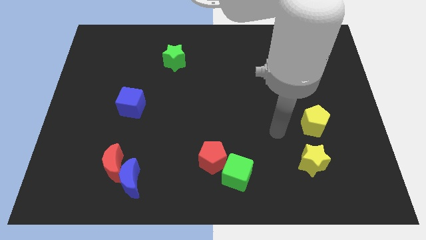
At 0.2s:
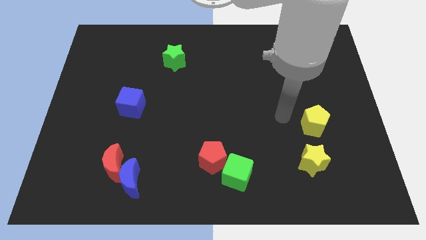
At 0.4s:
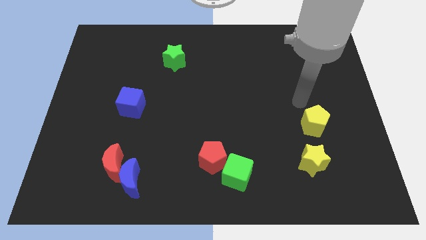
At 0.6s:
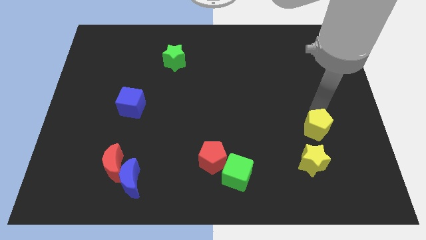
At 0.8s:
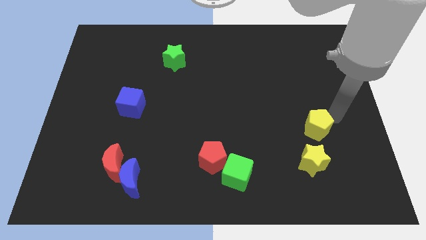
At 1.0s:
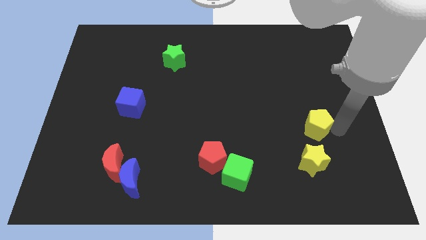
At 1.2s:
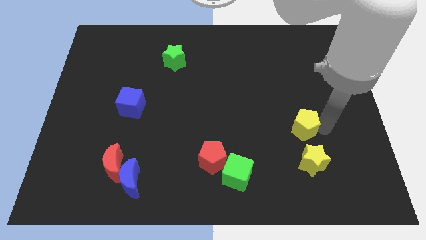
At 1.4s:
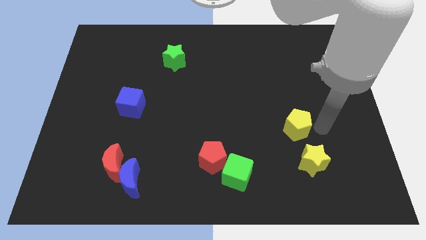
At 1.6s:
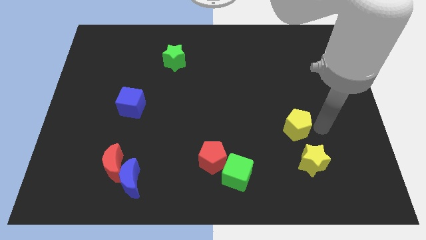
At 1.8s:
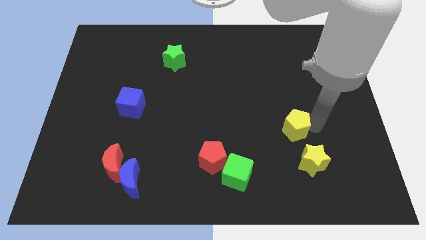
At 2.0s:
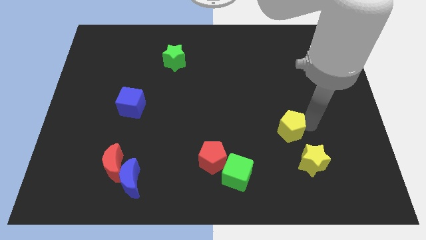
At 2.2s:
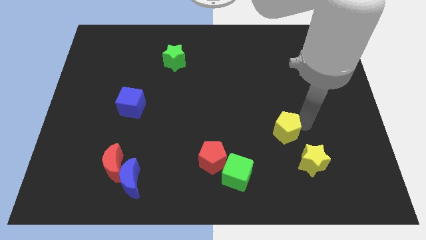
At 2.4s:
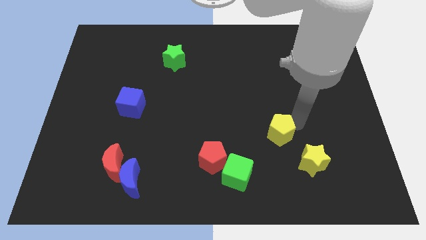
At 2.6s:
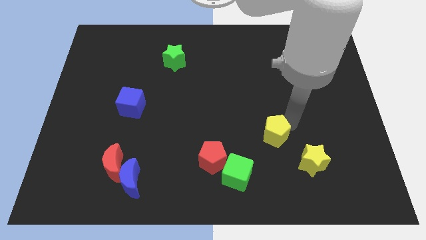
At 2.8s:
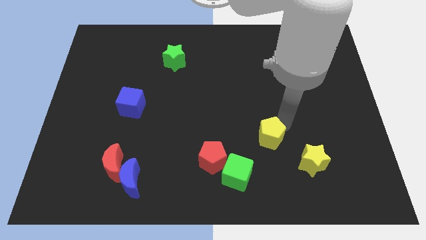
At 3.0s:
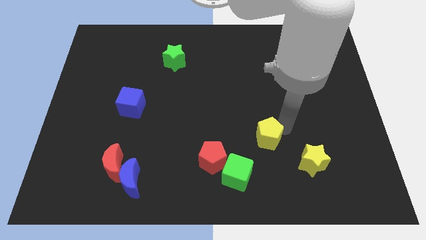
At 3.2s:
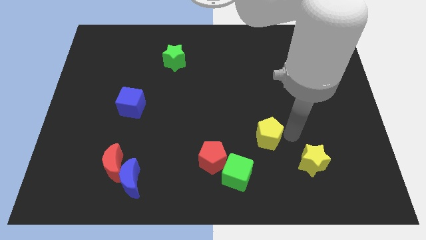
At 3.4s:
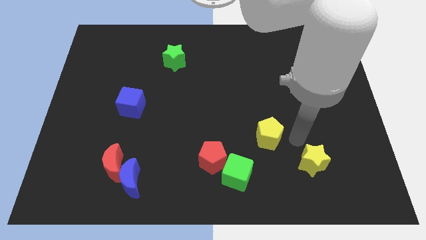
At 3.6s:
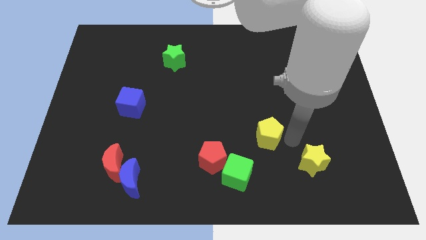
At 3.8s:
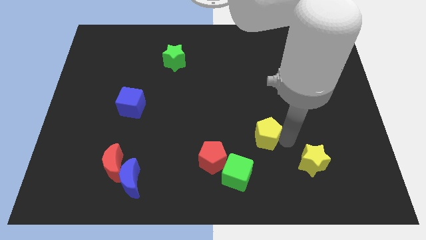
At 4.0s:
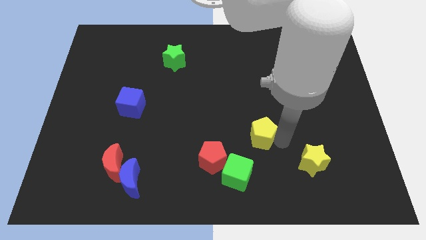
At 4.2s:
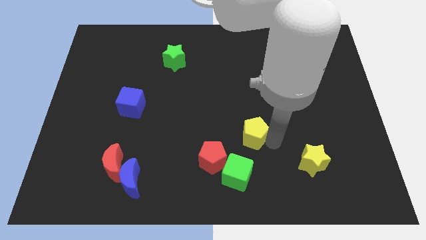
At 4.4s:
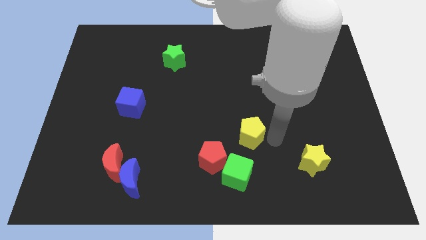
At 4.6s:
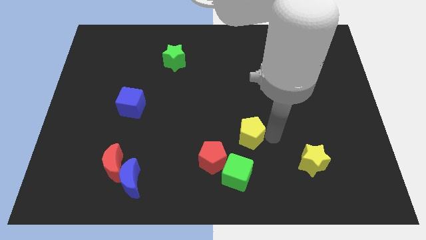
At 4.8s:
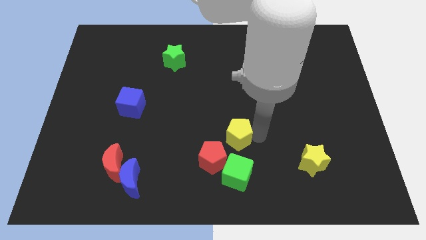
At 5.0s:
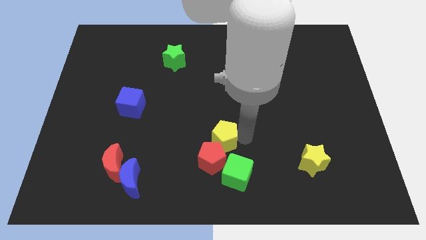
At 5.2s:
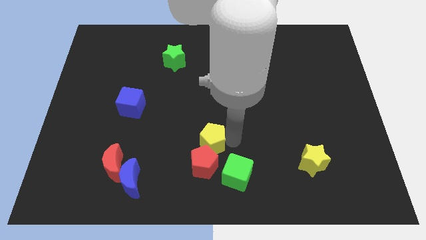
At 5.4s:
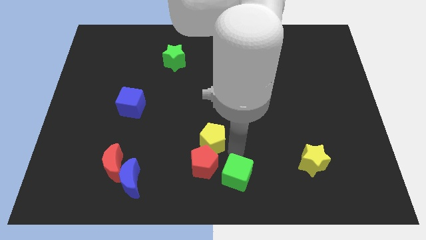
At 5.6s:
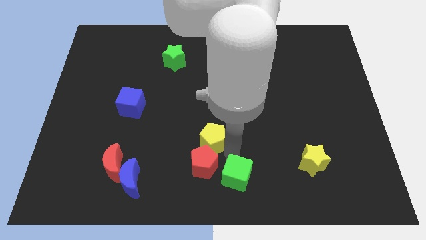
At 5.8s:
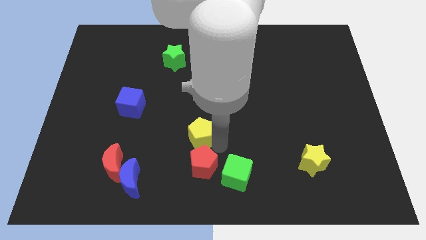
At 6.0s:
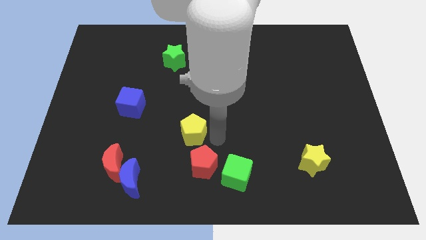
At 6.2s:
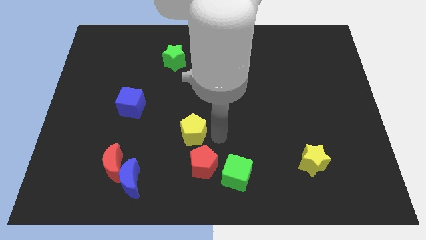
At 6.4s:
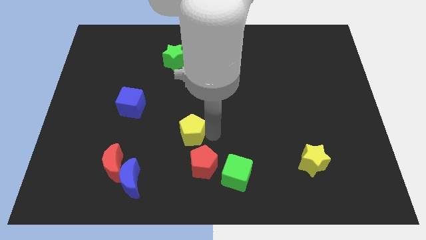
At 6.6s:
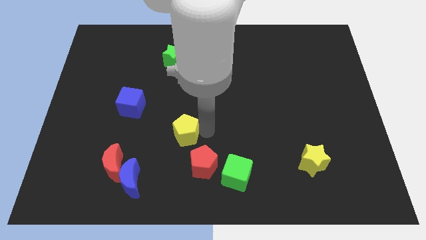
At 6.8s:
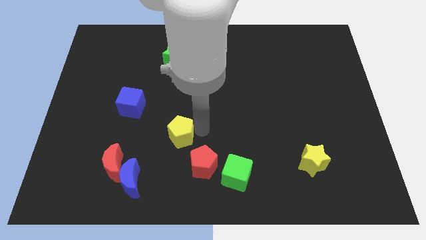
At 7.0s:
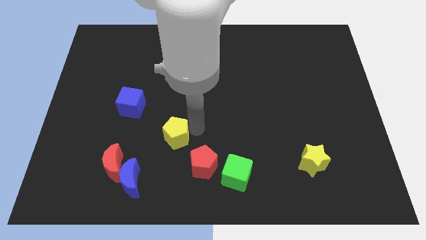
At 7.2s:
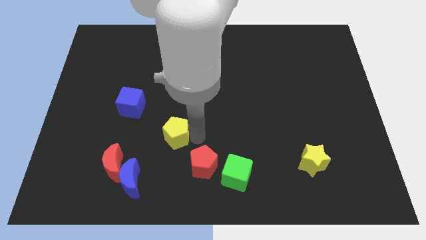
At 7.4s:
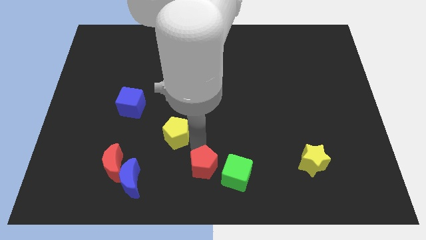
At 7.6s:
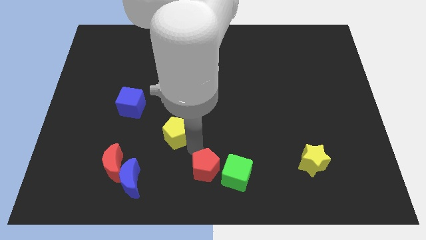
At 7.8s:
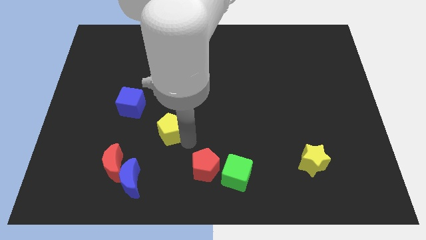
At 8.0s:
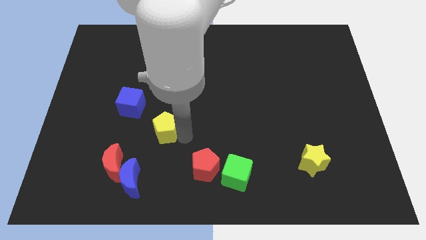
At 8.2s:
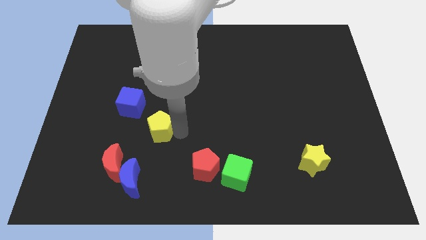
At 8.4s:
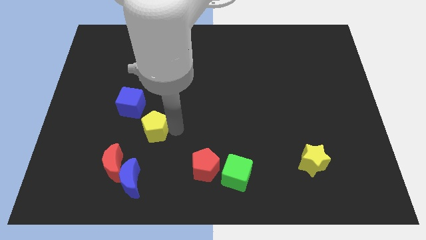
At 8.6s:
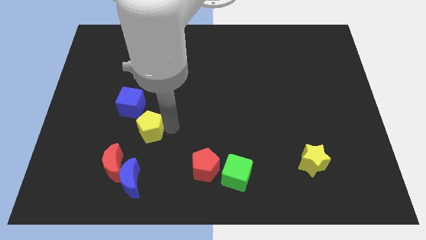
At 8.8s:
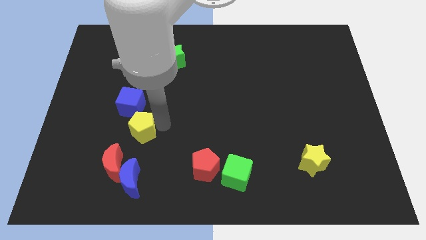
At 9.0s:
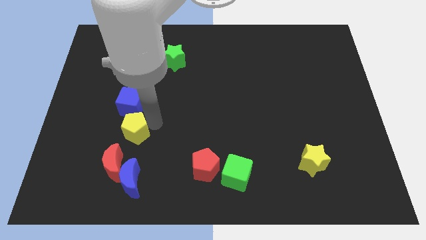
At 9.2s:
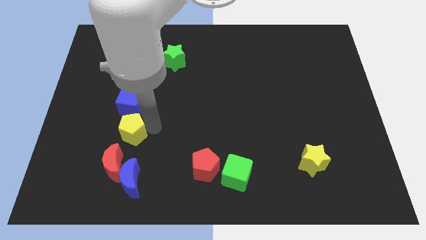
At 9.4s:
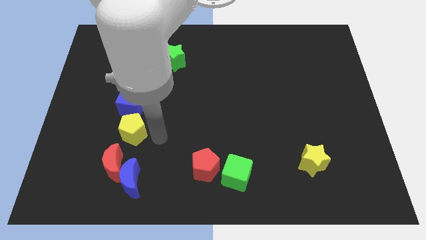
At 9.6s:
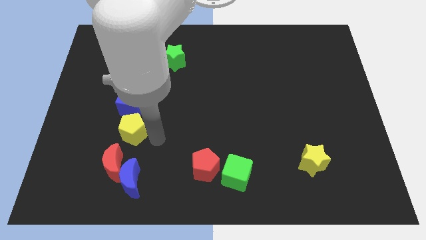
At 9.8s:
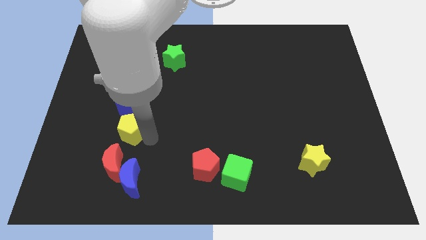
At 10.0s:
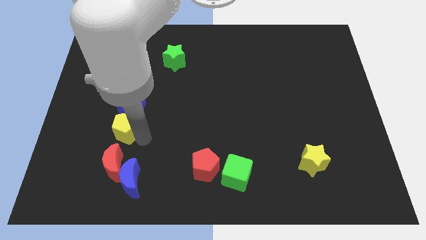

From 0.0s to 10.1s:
push the yellow pentagon to the bottom left of the blue cube

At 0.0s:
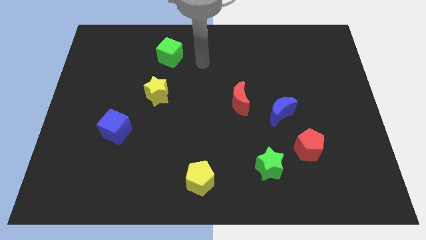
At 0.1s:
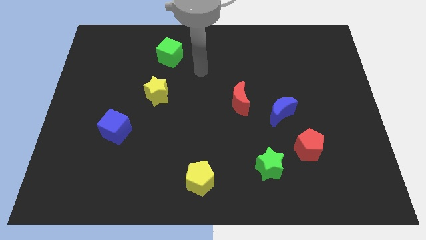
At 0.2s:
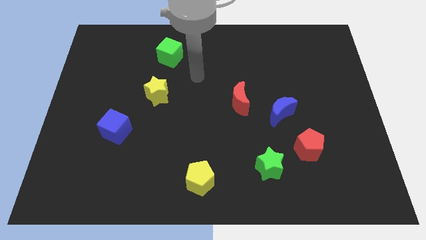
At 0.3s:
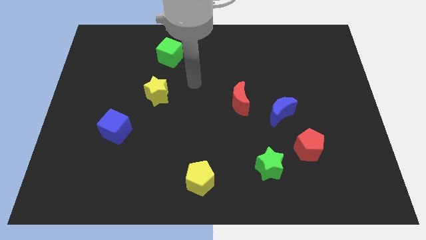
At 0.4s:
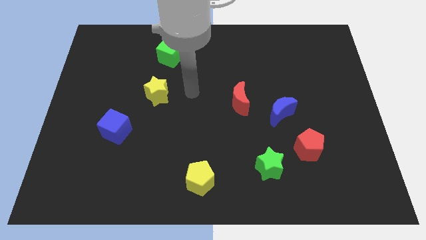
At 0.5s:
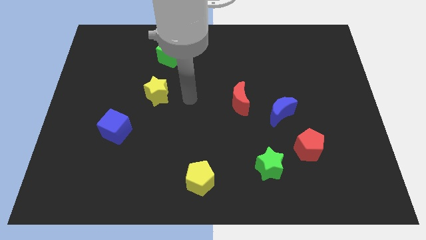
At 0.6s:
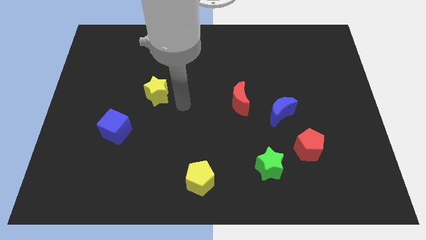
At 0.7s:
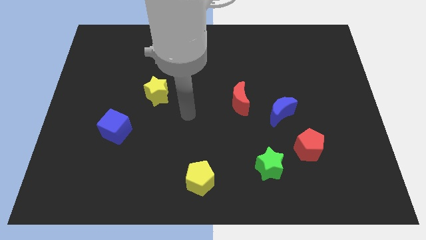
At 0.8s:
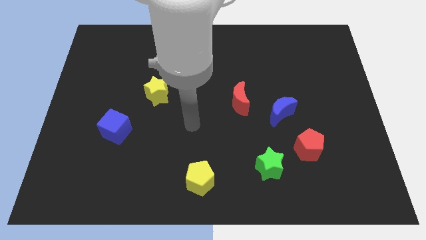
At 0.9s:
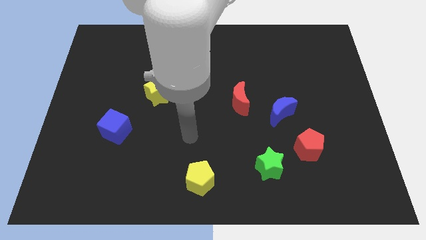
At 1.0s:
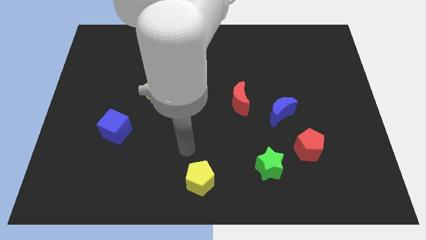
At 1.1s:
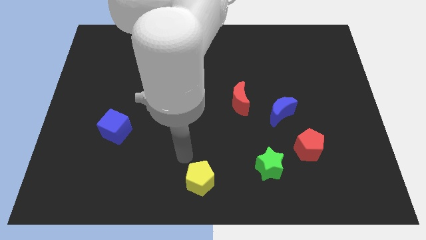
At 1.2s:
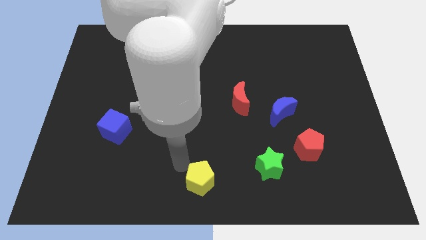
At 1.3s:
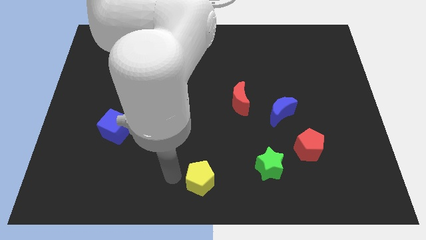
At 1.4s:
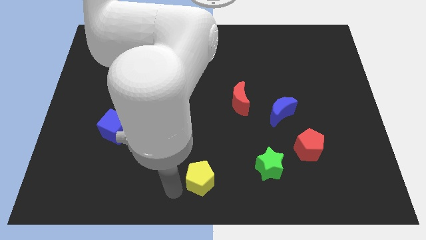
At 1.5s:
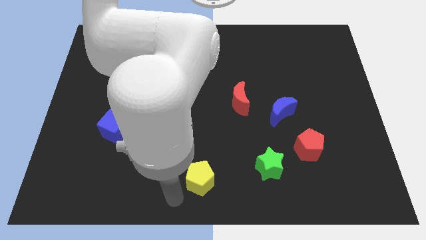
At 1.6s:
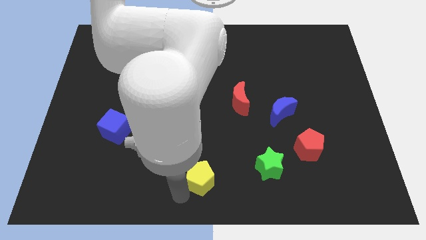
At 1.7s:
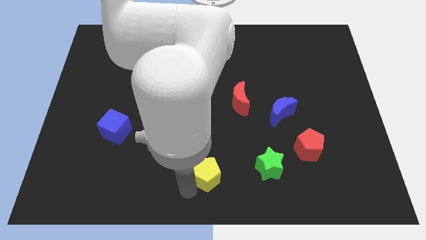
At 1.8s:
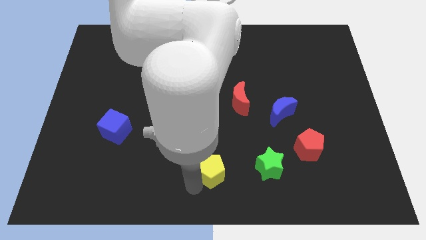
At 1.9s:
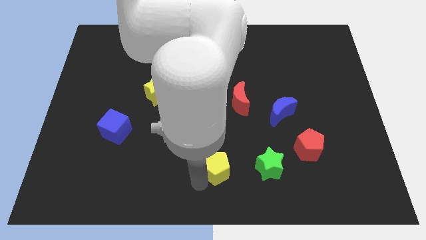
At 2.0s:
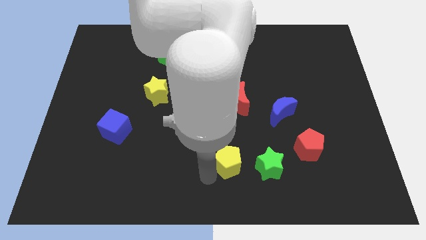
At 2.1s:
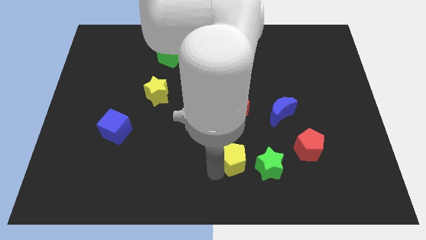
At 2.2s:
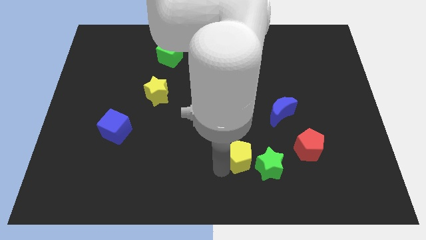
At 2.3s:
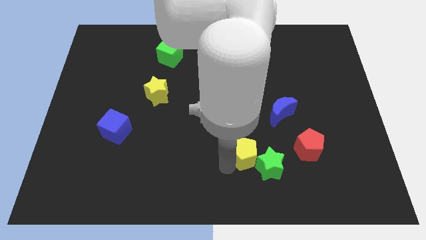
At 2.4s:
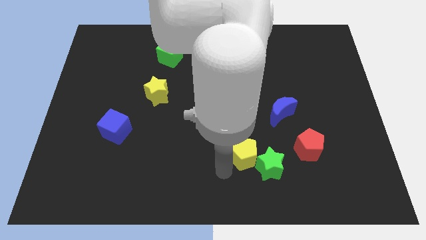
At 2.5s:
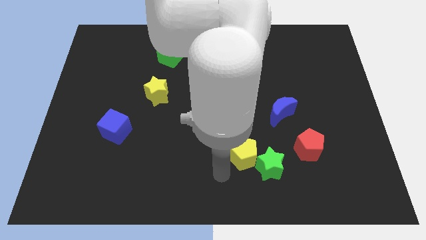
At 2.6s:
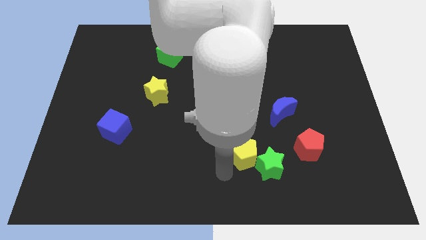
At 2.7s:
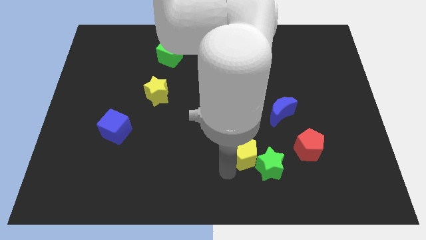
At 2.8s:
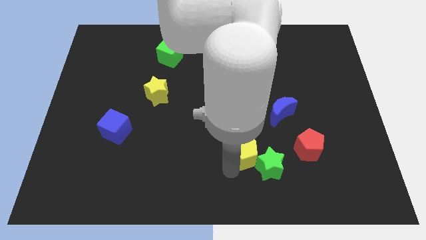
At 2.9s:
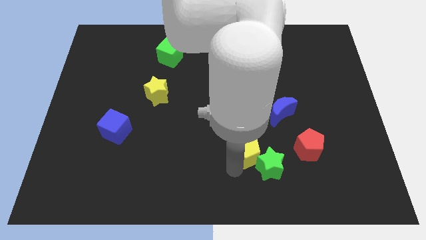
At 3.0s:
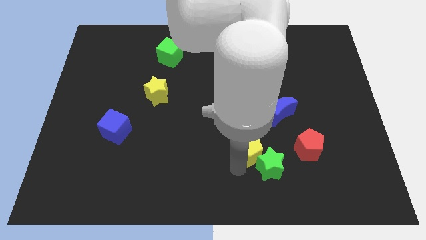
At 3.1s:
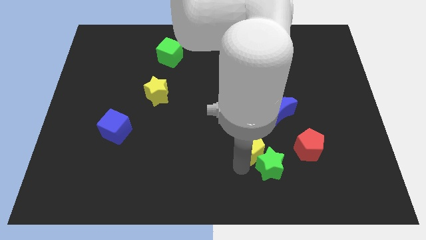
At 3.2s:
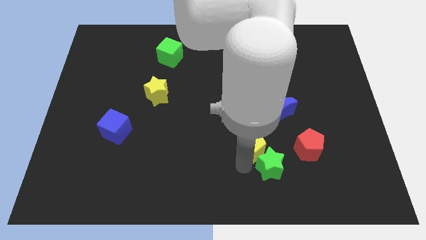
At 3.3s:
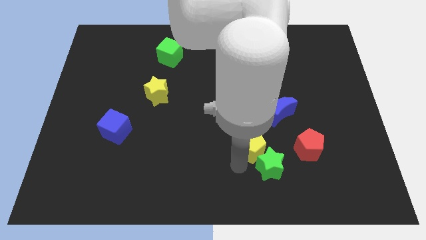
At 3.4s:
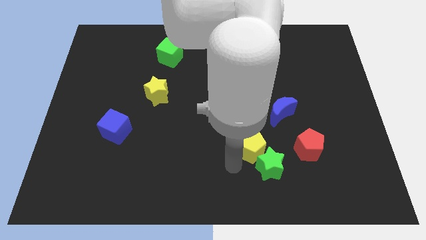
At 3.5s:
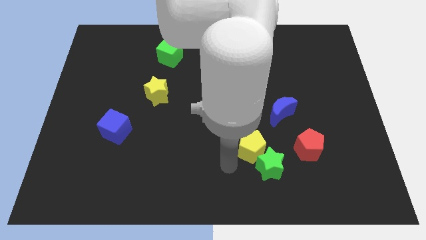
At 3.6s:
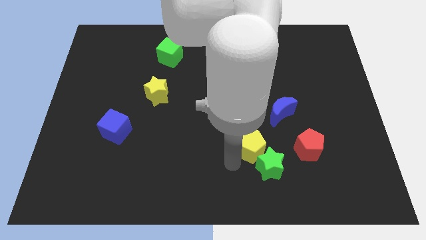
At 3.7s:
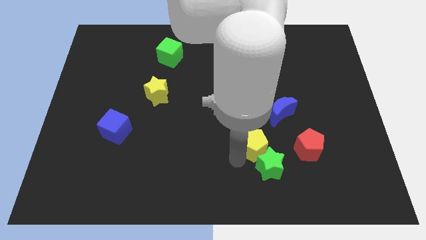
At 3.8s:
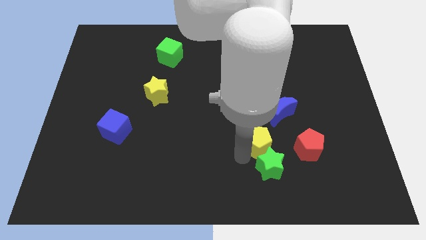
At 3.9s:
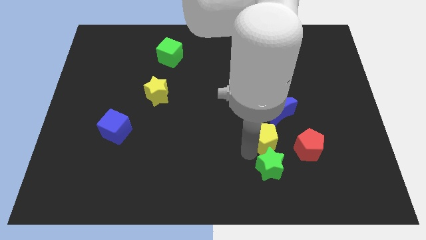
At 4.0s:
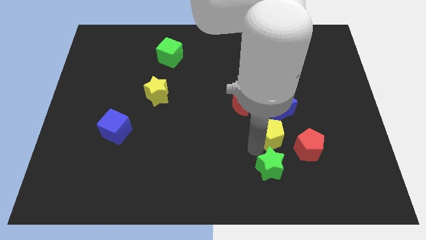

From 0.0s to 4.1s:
put the yellow pentagon to the top left of the red pentagon
